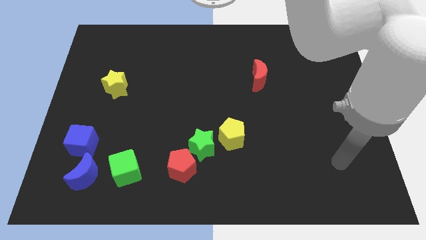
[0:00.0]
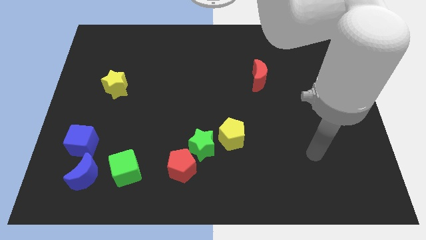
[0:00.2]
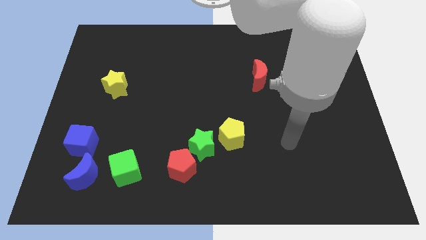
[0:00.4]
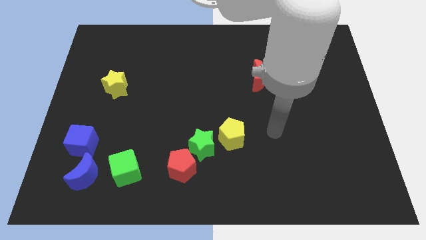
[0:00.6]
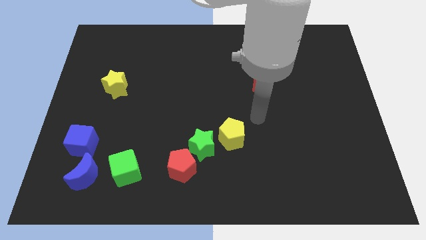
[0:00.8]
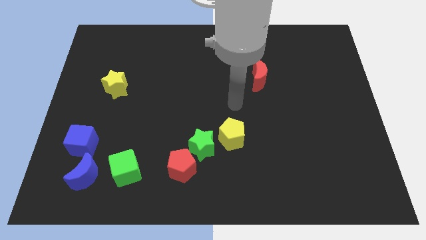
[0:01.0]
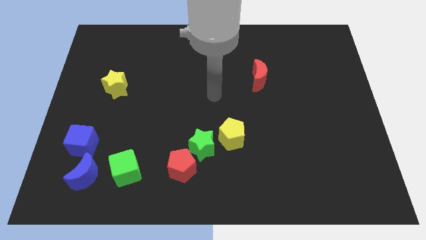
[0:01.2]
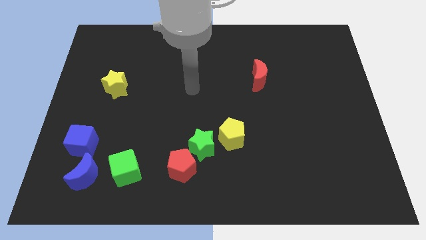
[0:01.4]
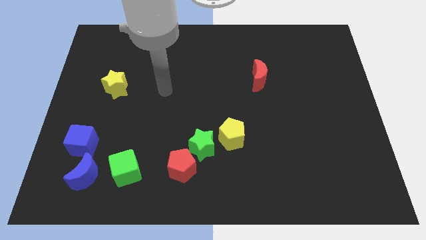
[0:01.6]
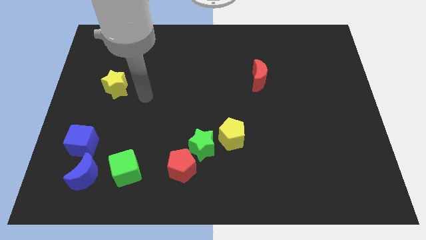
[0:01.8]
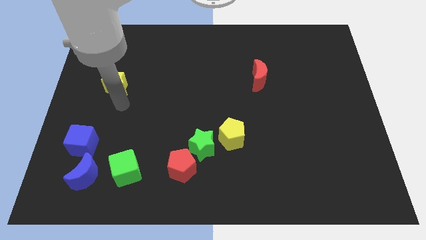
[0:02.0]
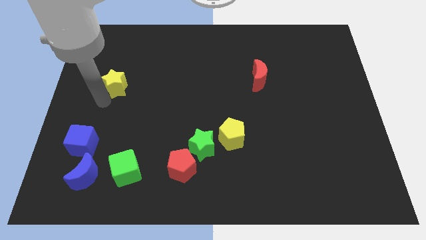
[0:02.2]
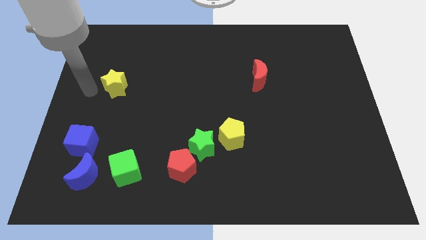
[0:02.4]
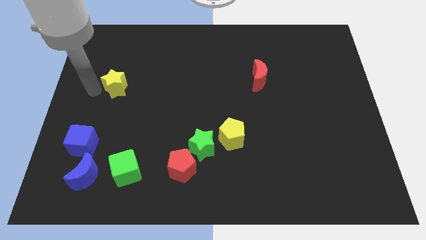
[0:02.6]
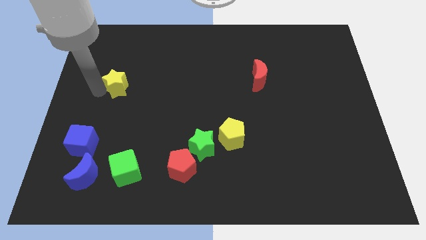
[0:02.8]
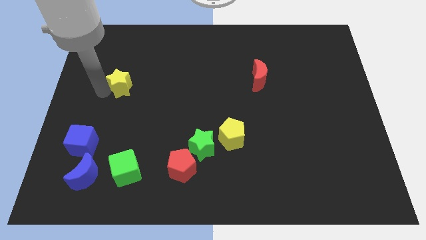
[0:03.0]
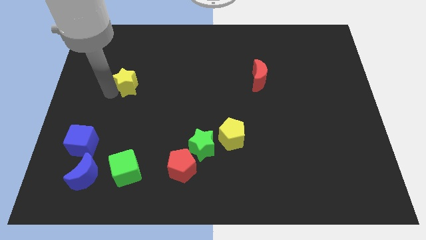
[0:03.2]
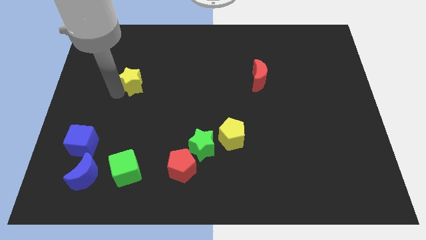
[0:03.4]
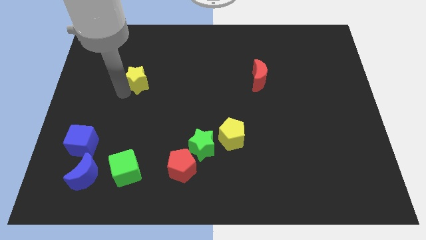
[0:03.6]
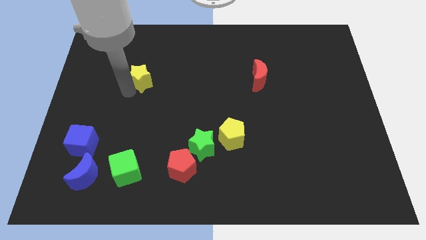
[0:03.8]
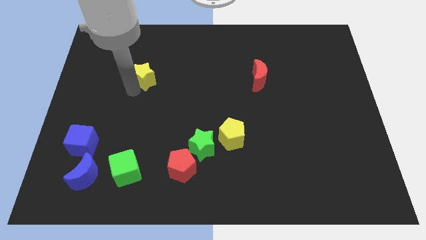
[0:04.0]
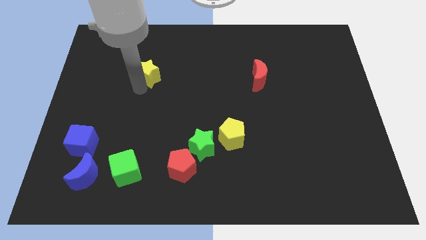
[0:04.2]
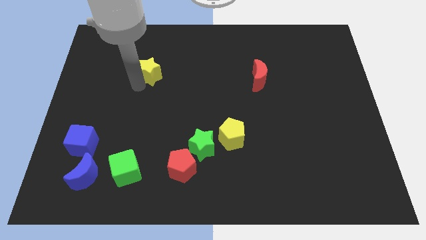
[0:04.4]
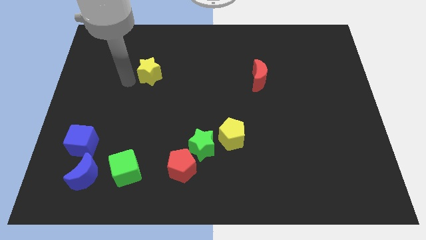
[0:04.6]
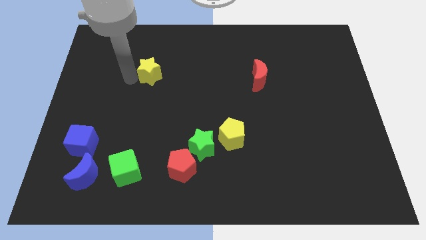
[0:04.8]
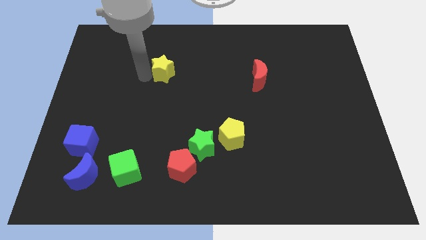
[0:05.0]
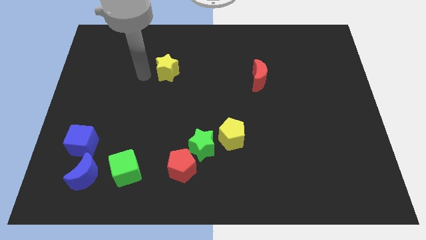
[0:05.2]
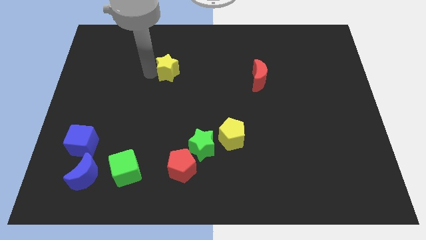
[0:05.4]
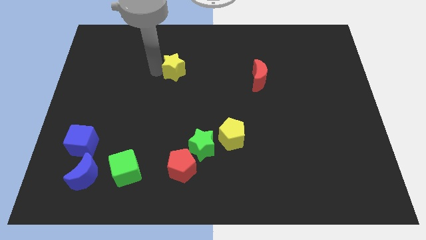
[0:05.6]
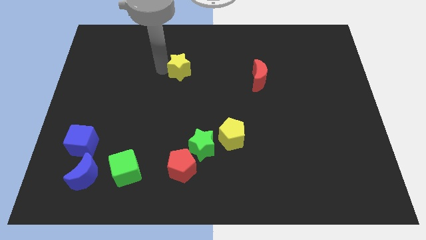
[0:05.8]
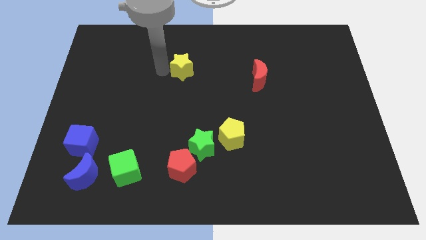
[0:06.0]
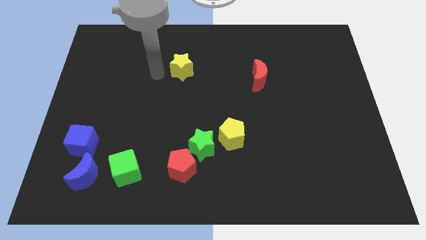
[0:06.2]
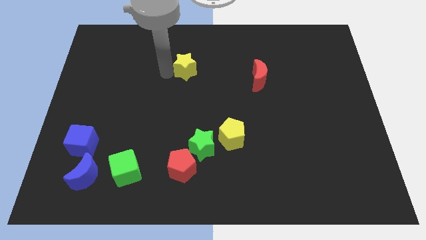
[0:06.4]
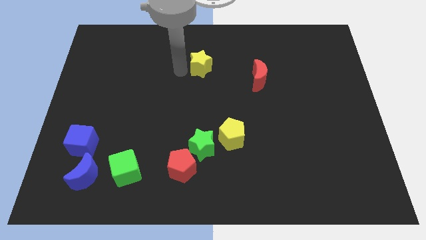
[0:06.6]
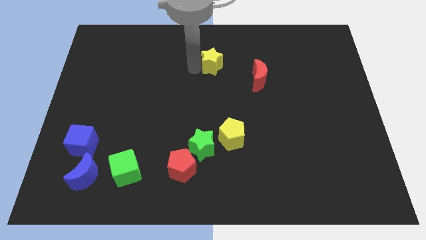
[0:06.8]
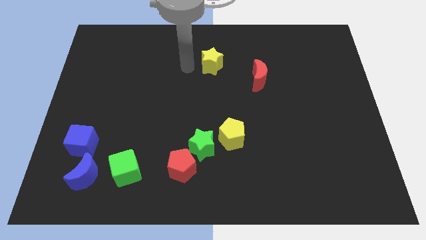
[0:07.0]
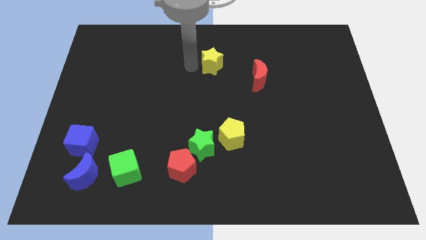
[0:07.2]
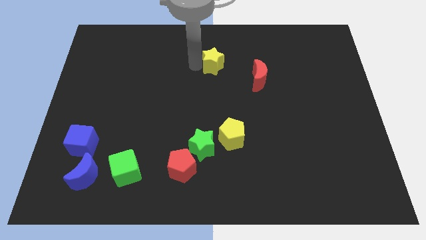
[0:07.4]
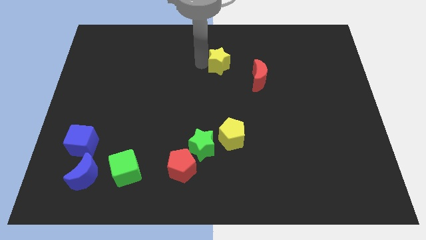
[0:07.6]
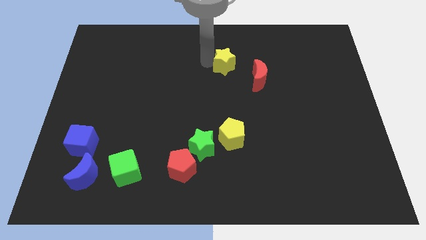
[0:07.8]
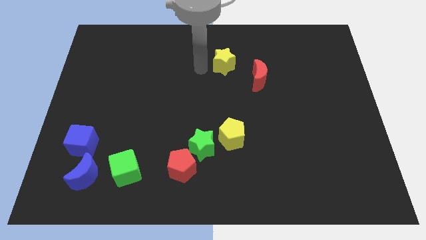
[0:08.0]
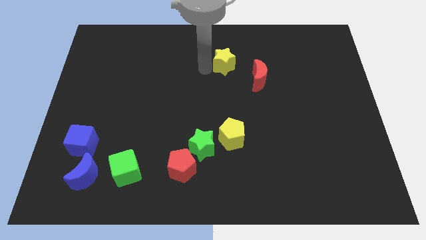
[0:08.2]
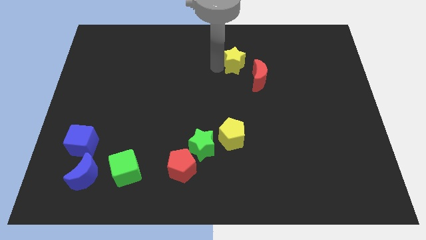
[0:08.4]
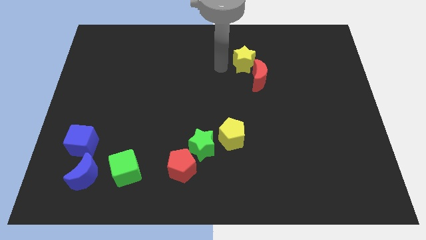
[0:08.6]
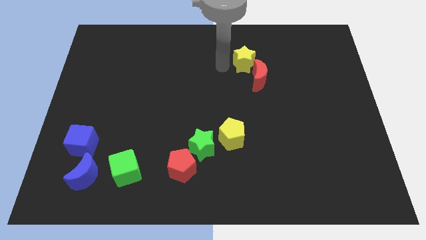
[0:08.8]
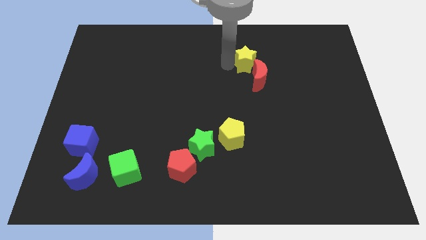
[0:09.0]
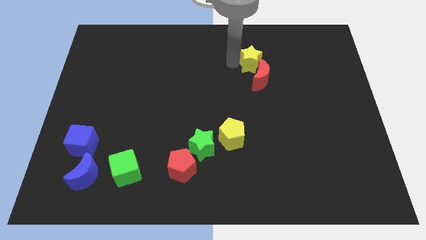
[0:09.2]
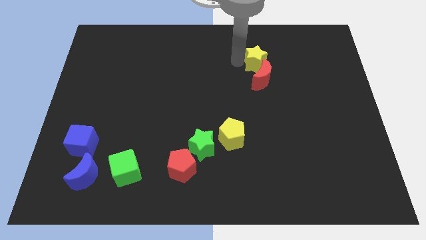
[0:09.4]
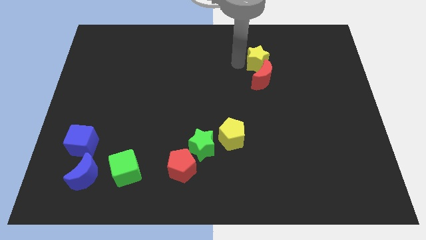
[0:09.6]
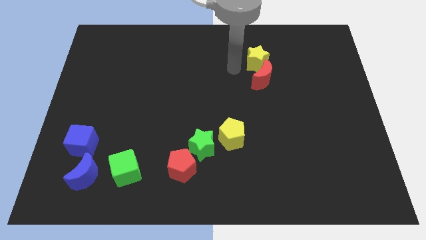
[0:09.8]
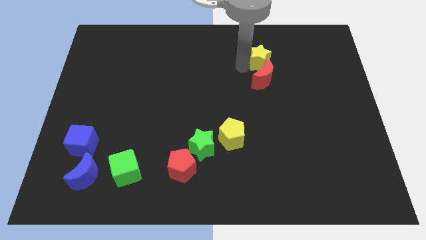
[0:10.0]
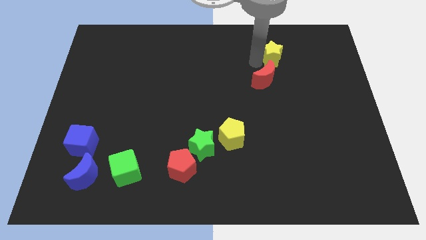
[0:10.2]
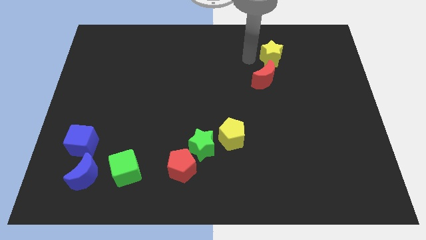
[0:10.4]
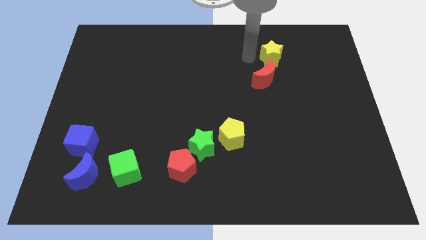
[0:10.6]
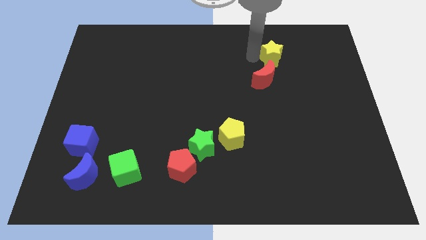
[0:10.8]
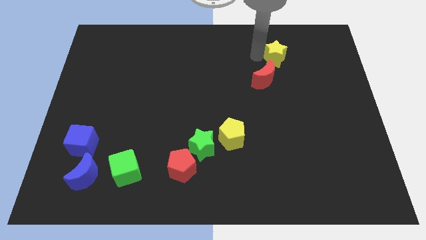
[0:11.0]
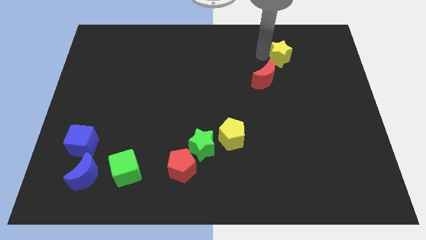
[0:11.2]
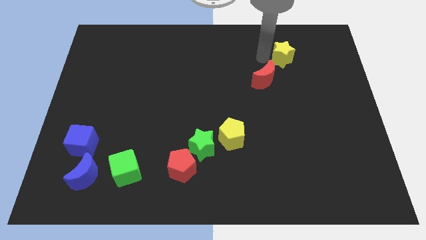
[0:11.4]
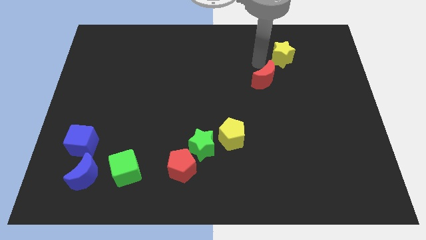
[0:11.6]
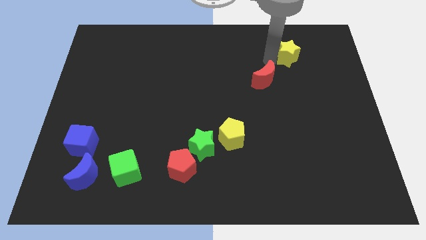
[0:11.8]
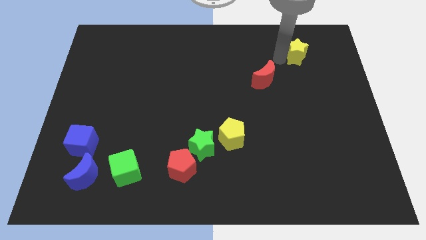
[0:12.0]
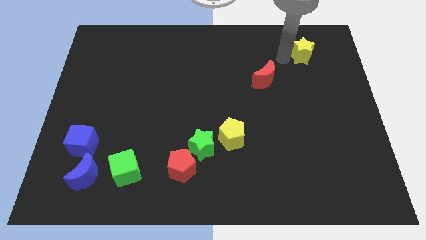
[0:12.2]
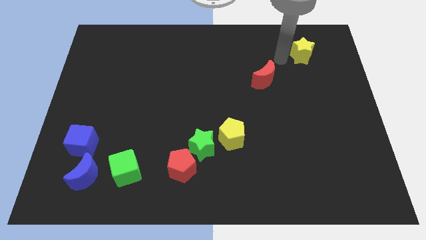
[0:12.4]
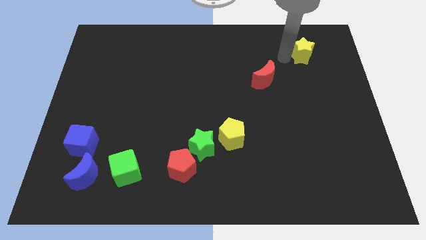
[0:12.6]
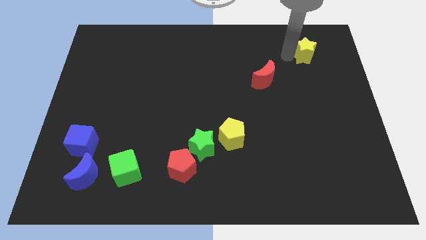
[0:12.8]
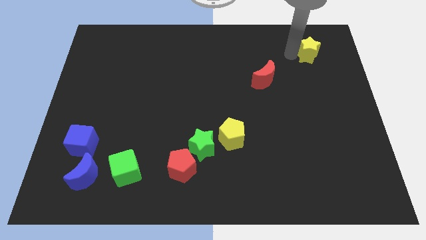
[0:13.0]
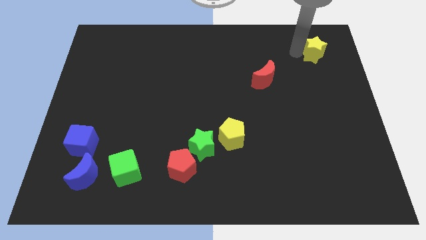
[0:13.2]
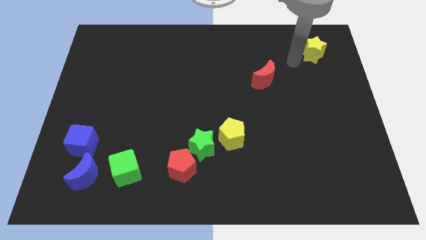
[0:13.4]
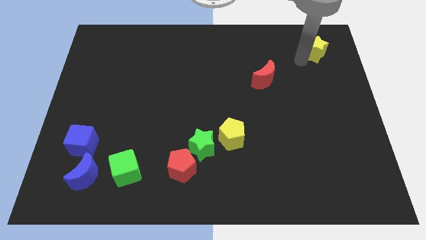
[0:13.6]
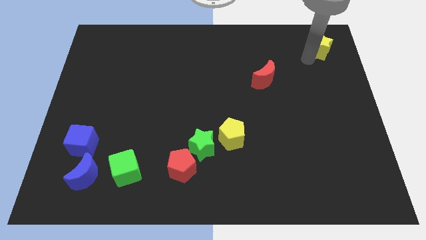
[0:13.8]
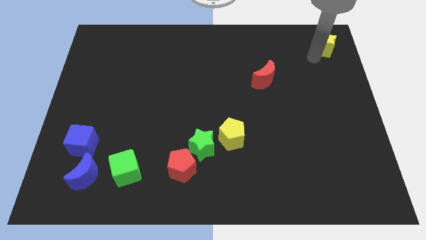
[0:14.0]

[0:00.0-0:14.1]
put the yellow star to the top right of the board

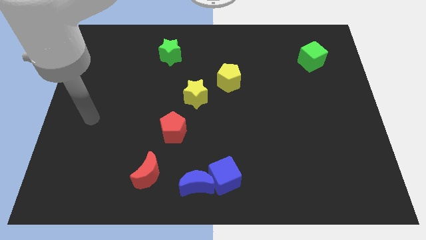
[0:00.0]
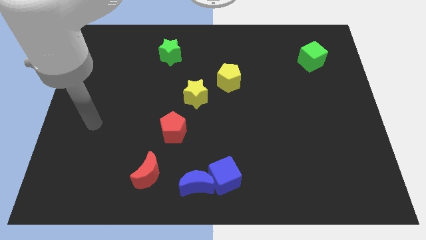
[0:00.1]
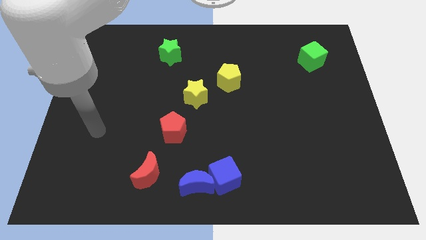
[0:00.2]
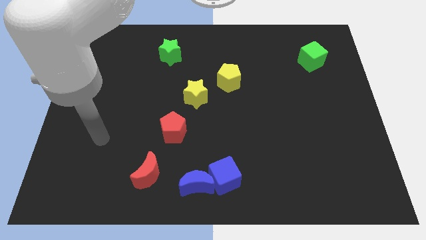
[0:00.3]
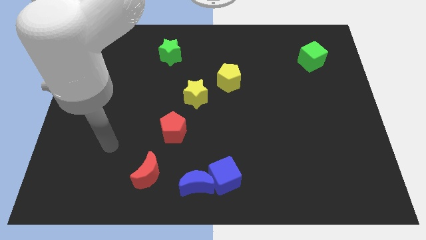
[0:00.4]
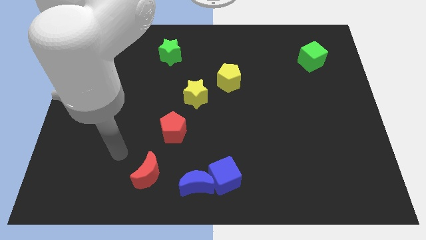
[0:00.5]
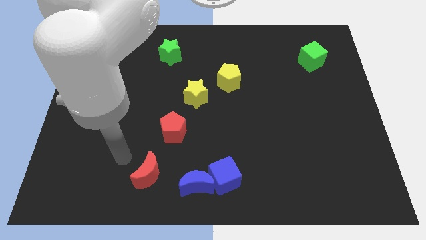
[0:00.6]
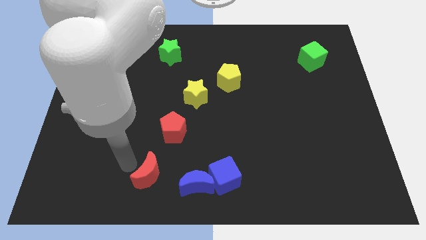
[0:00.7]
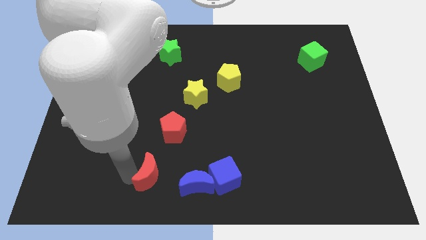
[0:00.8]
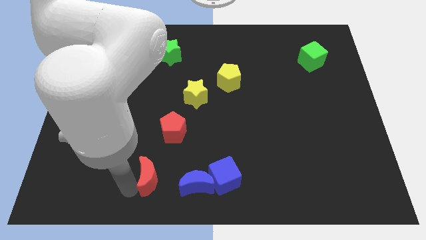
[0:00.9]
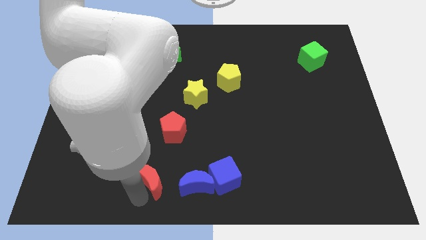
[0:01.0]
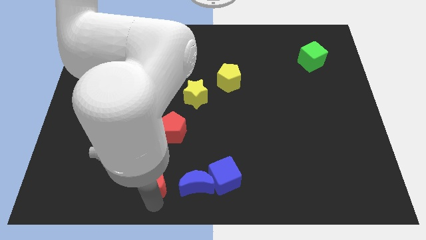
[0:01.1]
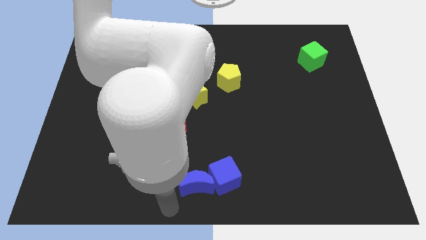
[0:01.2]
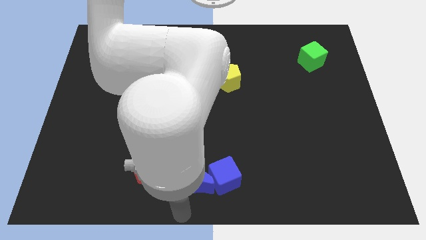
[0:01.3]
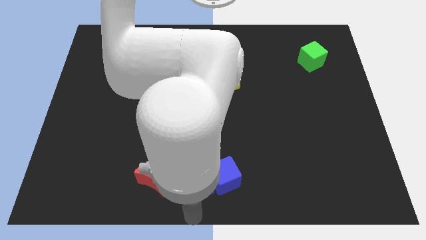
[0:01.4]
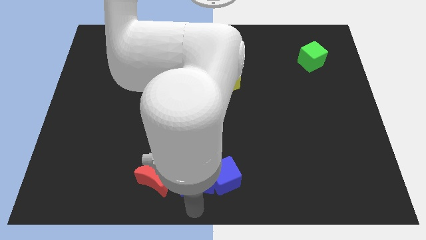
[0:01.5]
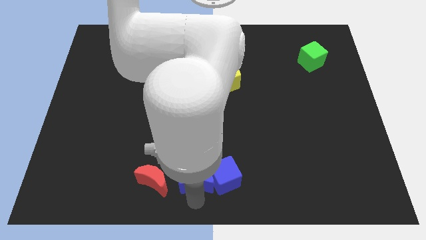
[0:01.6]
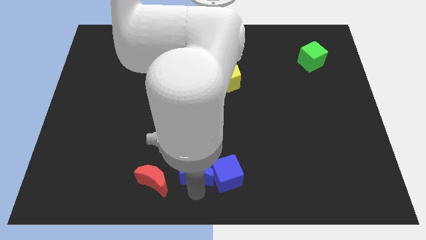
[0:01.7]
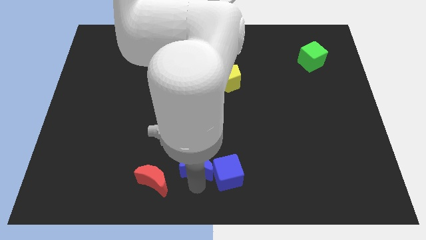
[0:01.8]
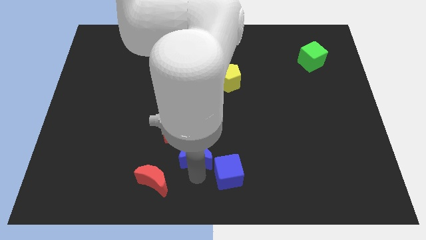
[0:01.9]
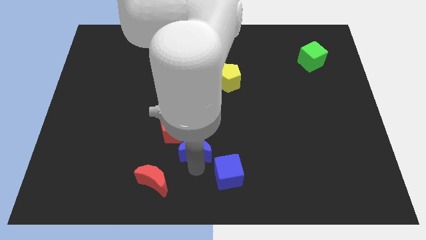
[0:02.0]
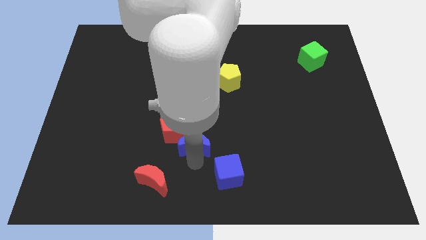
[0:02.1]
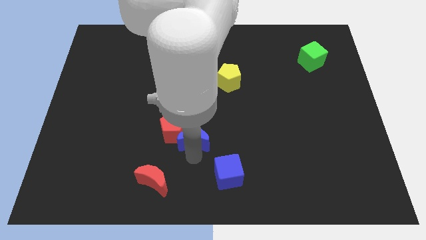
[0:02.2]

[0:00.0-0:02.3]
push the blue moon to the middle
